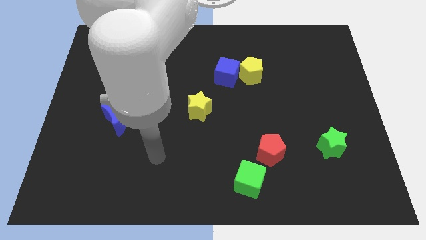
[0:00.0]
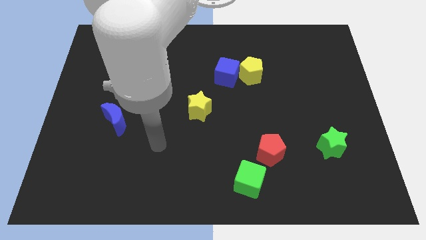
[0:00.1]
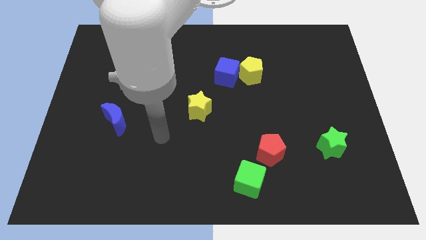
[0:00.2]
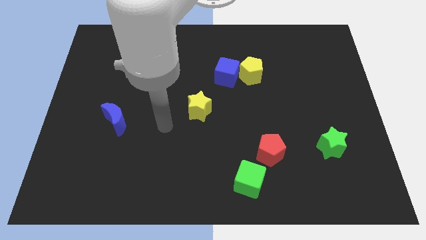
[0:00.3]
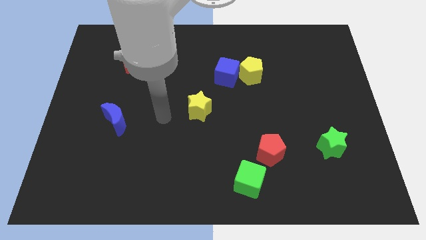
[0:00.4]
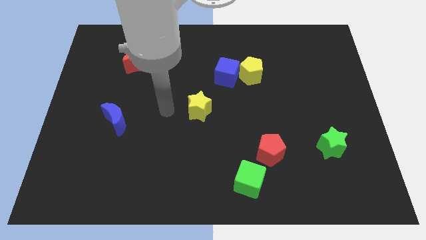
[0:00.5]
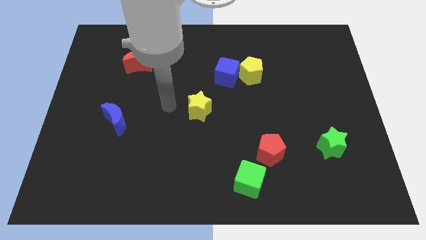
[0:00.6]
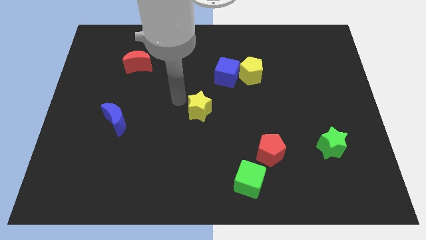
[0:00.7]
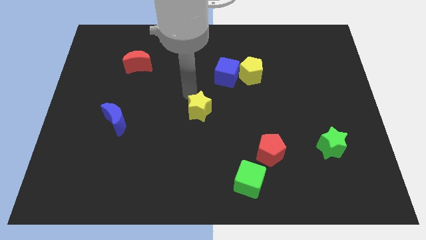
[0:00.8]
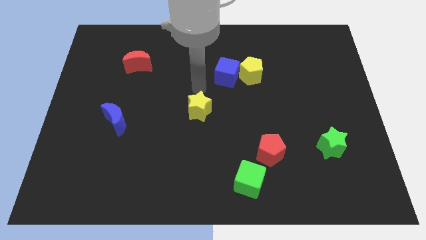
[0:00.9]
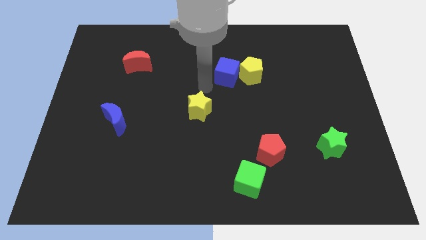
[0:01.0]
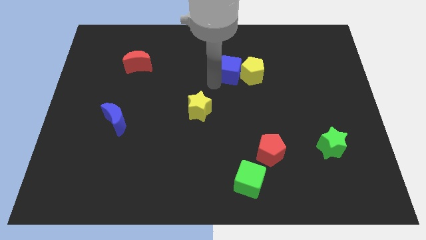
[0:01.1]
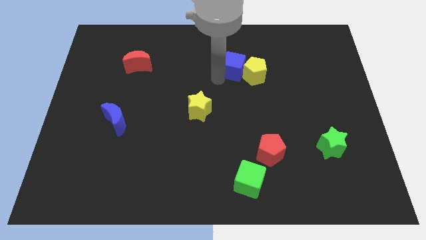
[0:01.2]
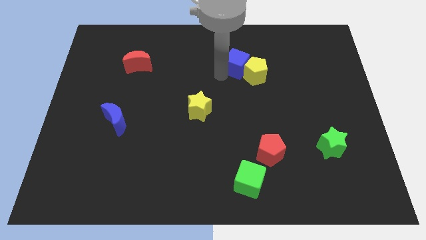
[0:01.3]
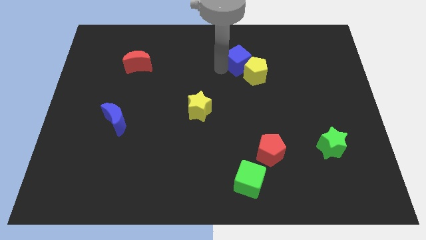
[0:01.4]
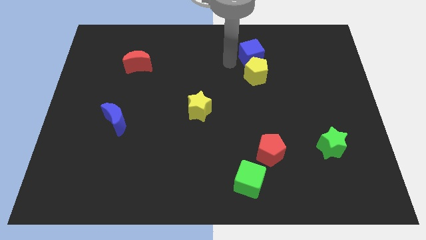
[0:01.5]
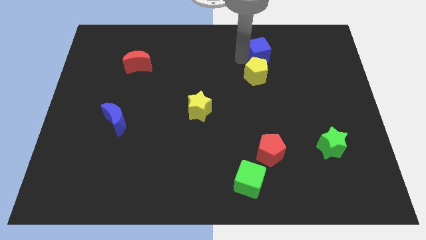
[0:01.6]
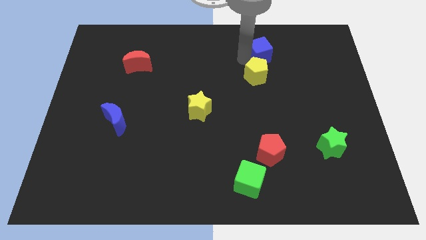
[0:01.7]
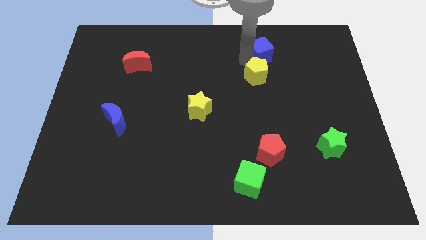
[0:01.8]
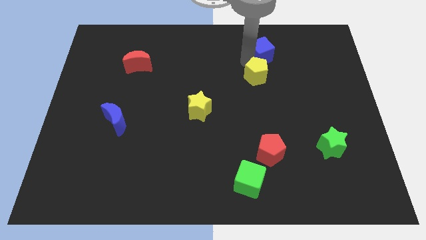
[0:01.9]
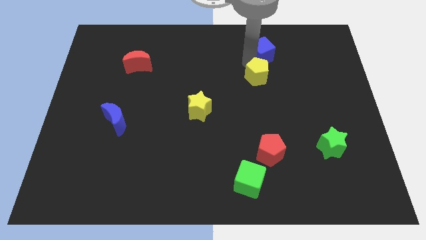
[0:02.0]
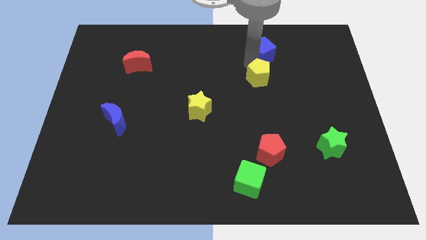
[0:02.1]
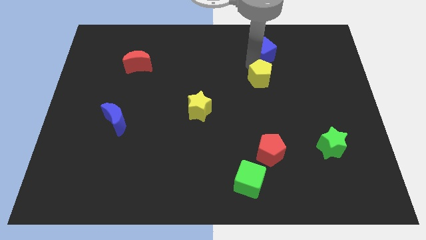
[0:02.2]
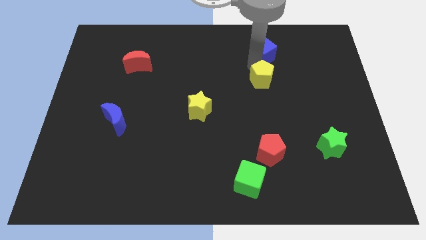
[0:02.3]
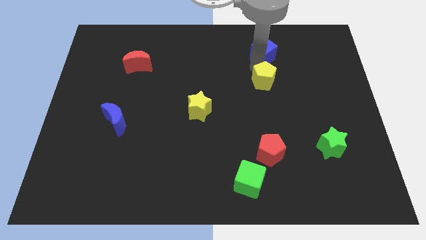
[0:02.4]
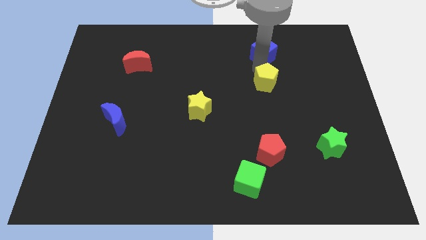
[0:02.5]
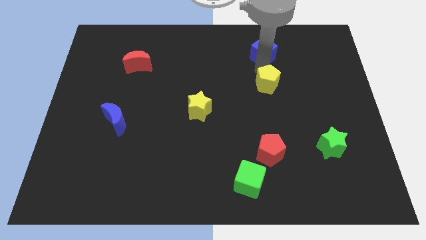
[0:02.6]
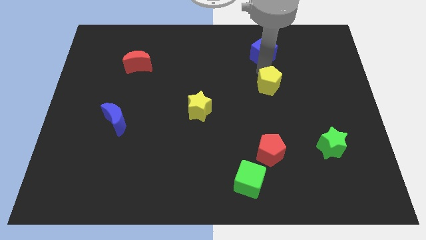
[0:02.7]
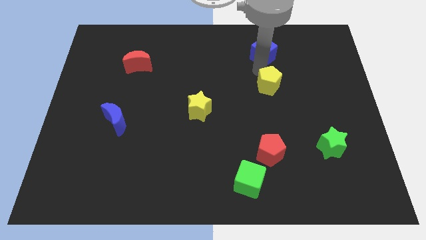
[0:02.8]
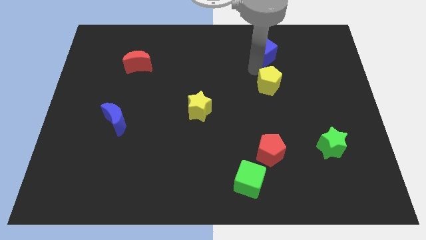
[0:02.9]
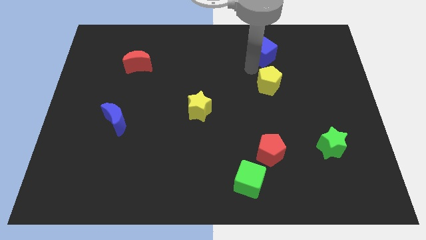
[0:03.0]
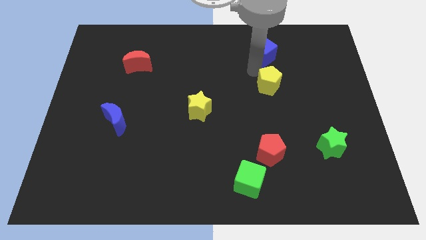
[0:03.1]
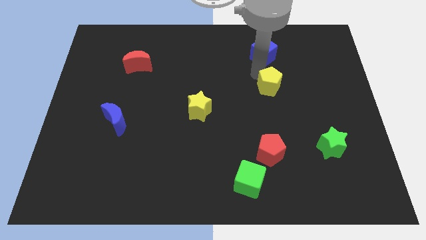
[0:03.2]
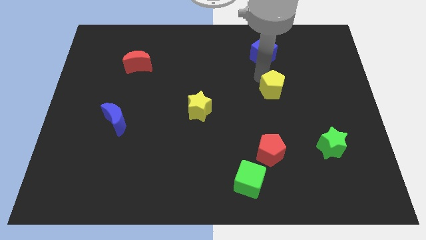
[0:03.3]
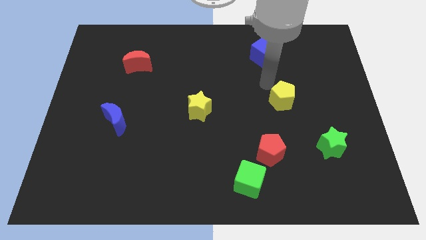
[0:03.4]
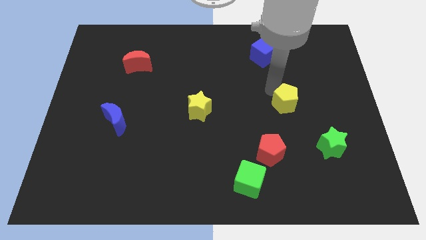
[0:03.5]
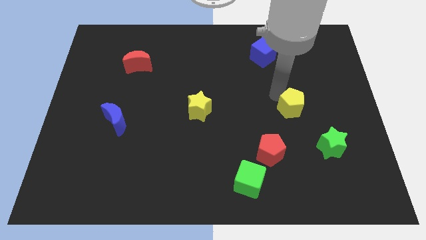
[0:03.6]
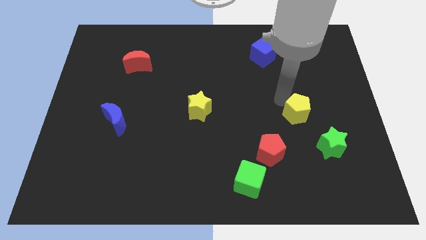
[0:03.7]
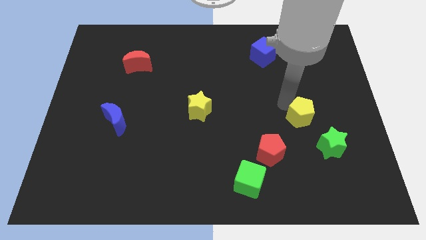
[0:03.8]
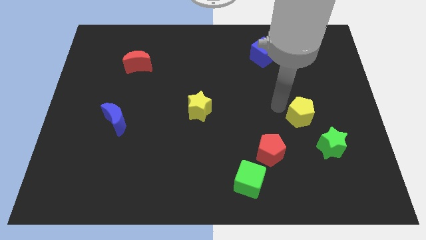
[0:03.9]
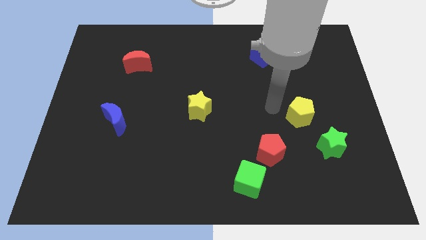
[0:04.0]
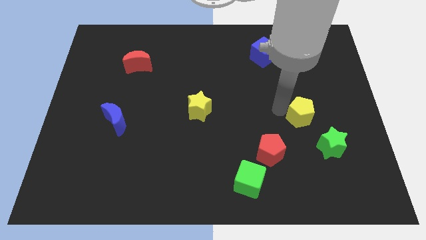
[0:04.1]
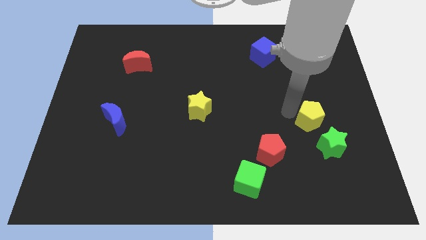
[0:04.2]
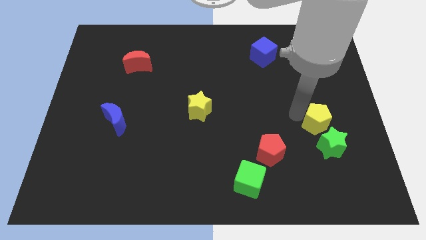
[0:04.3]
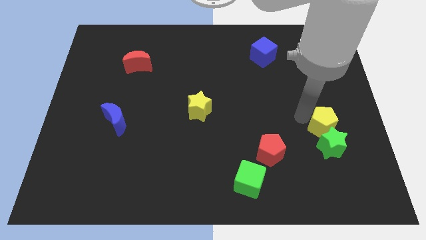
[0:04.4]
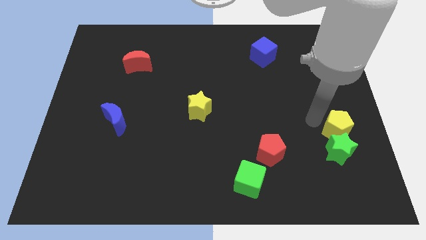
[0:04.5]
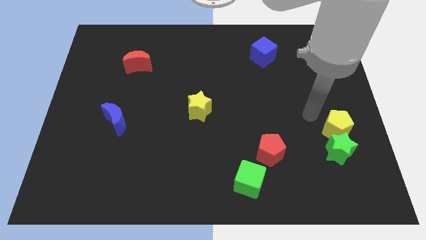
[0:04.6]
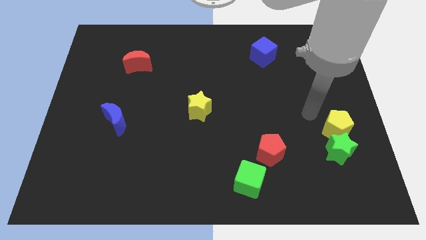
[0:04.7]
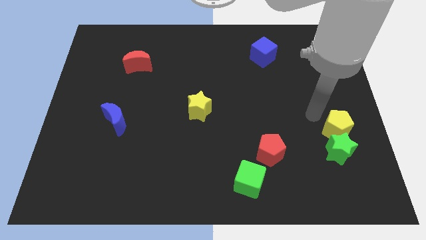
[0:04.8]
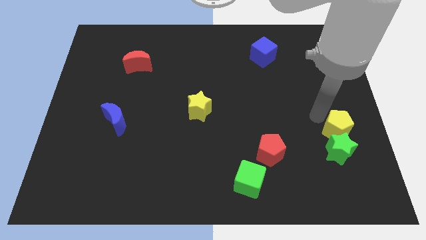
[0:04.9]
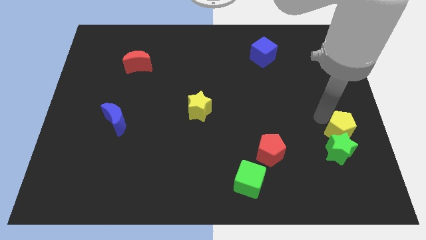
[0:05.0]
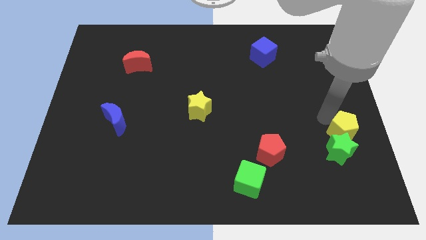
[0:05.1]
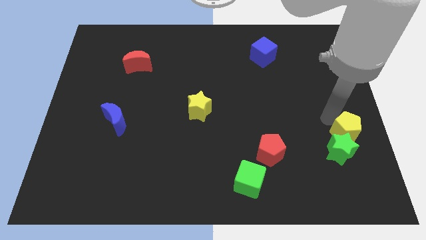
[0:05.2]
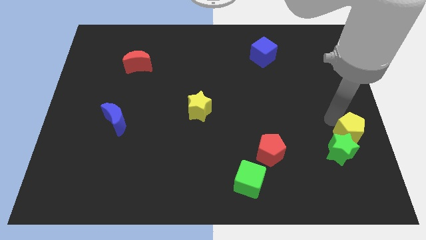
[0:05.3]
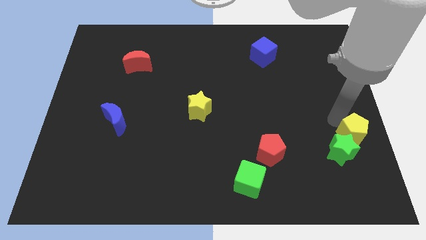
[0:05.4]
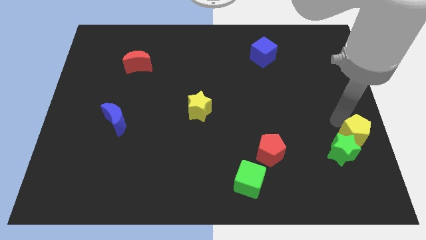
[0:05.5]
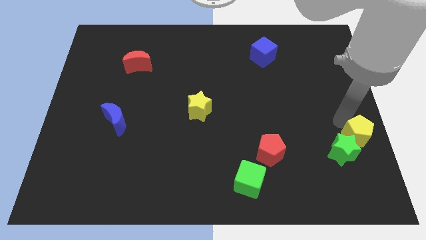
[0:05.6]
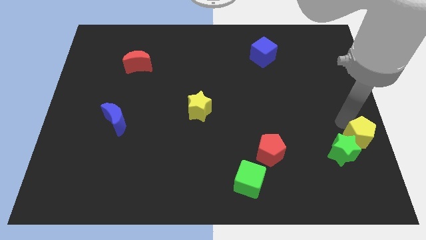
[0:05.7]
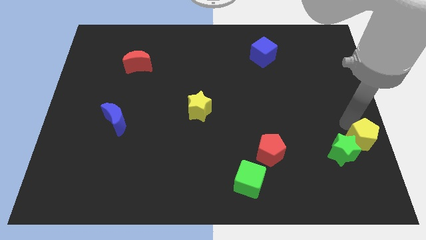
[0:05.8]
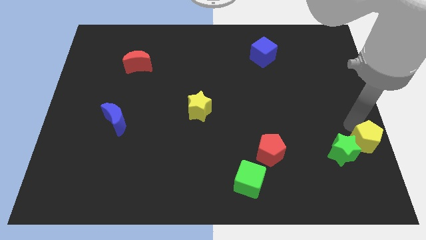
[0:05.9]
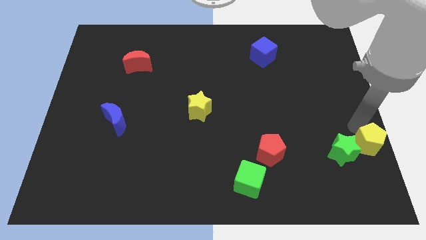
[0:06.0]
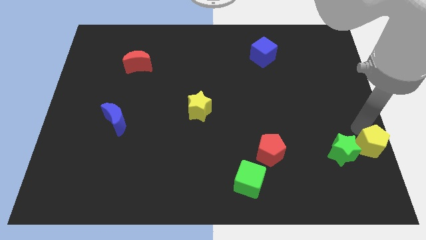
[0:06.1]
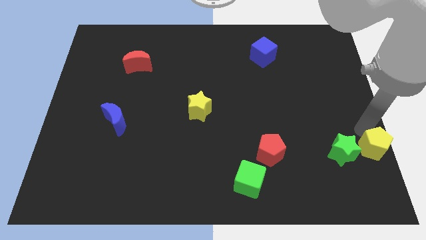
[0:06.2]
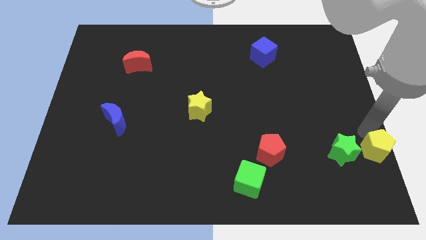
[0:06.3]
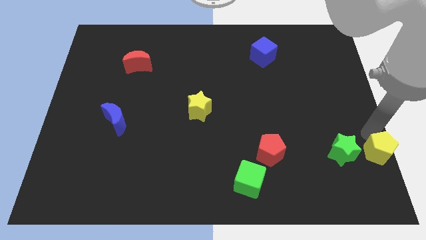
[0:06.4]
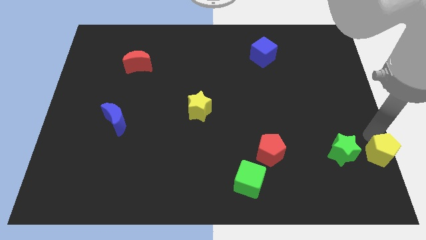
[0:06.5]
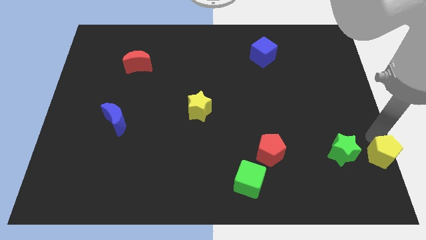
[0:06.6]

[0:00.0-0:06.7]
move the yellow pentagon to the bottom right corner
